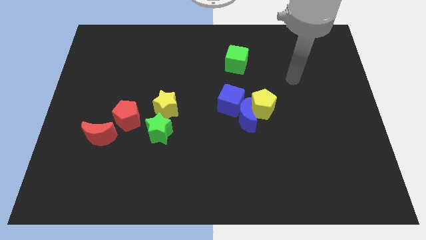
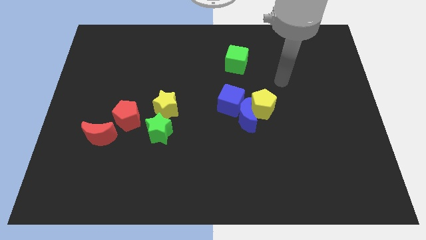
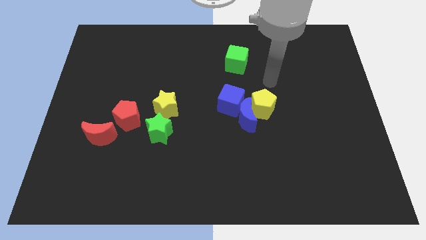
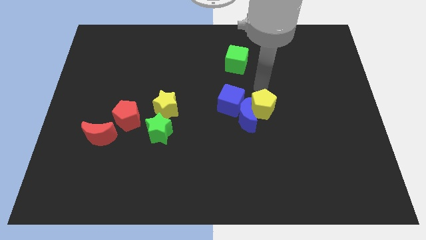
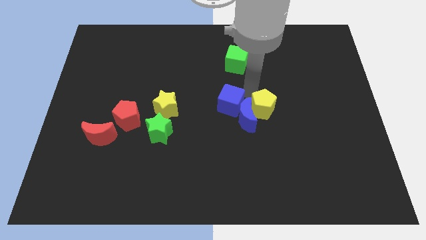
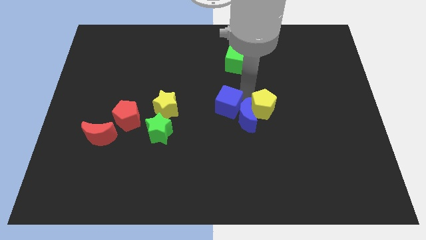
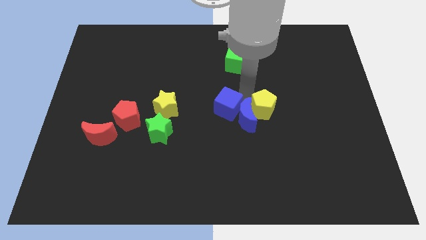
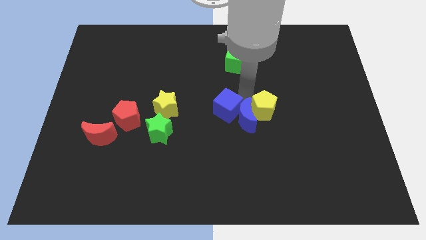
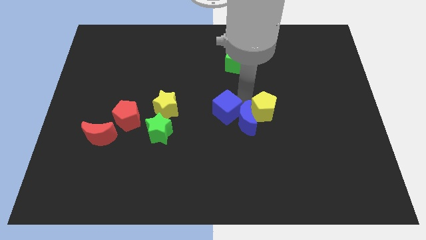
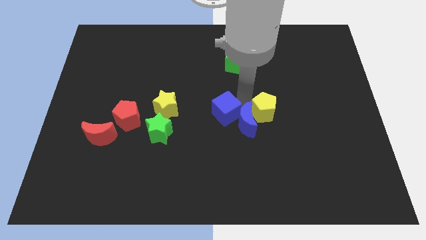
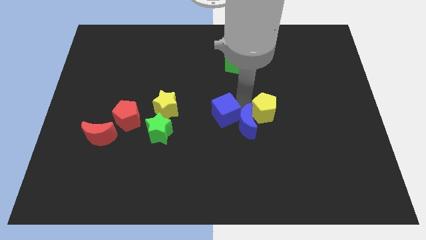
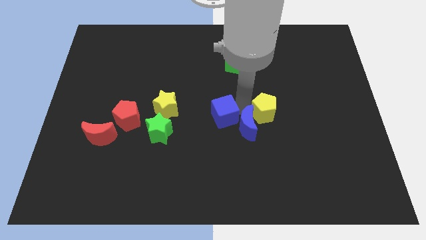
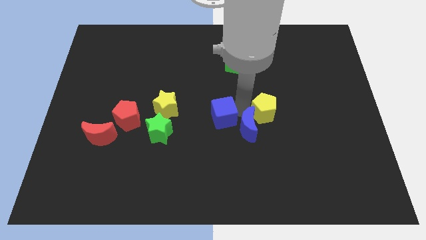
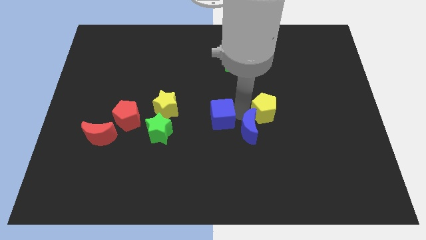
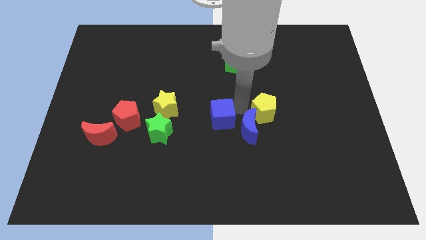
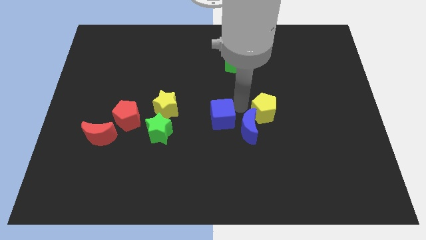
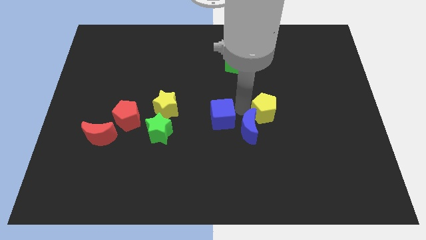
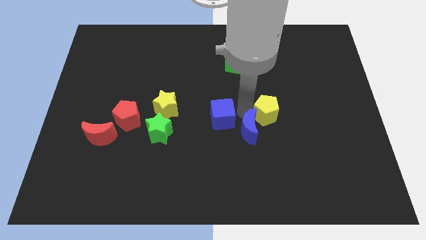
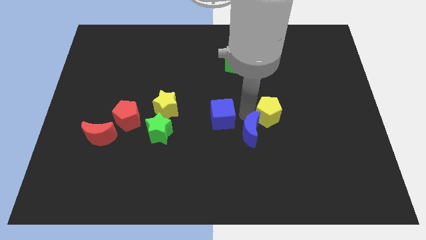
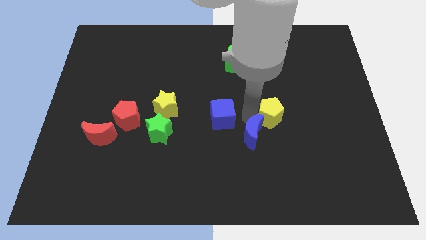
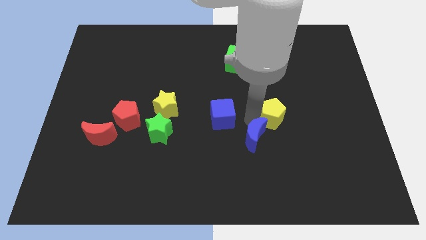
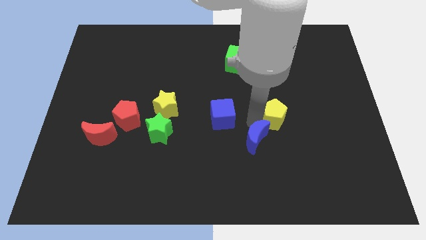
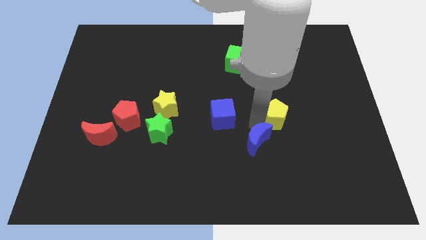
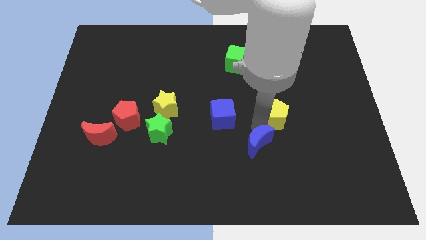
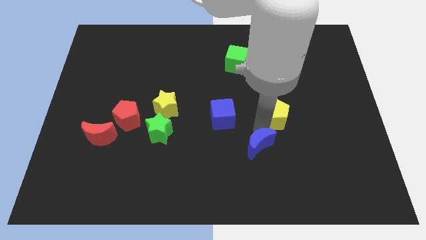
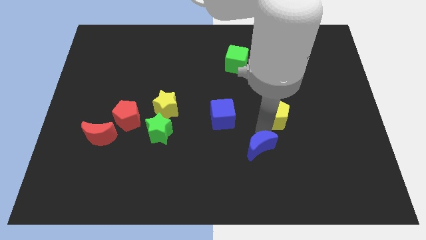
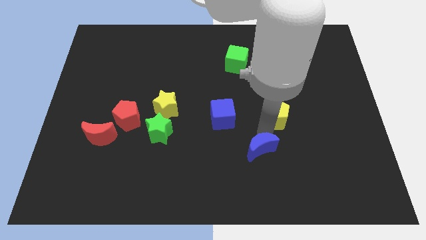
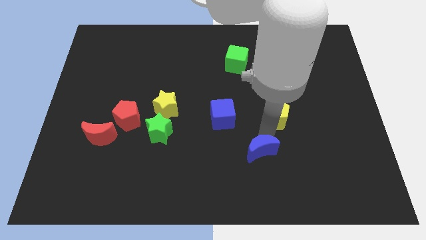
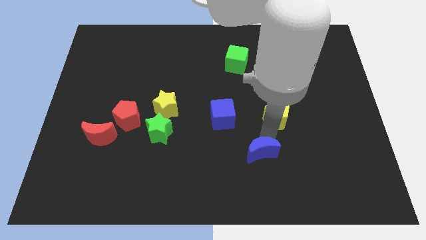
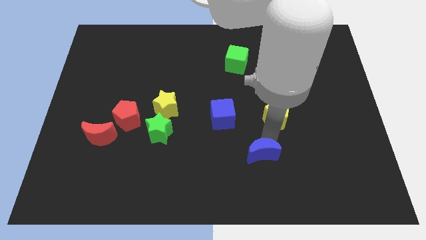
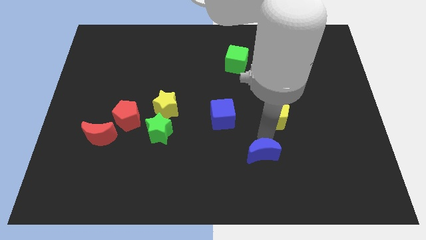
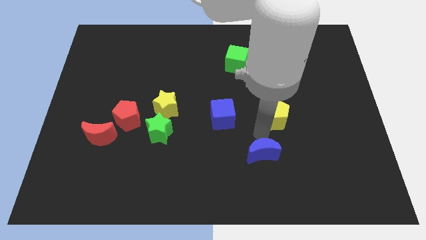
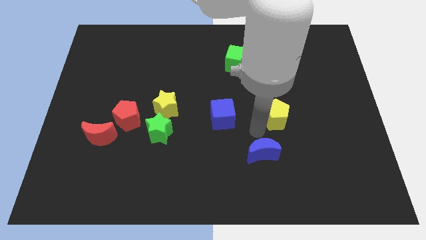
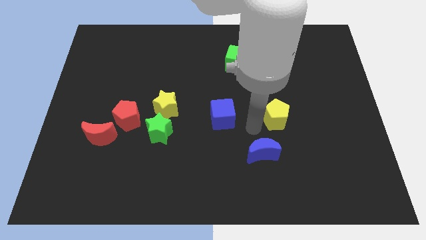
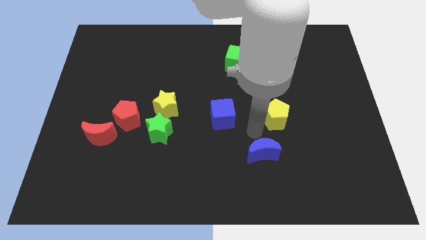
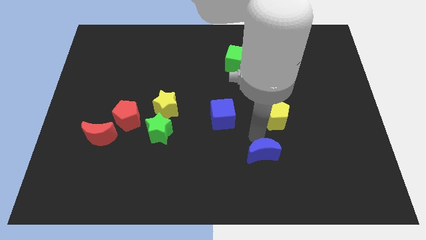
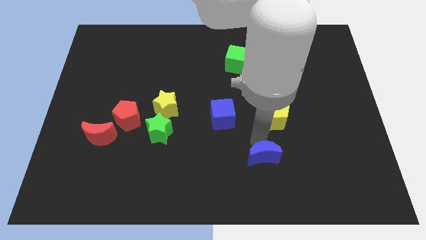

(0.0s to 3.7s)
pull the blue moon apart from the yellow pentagon and blue cube

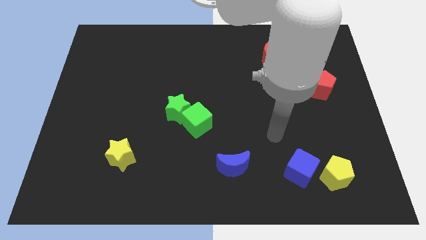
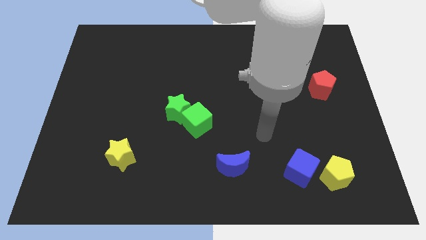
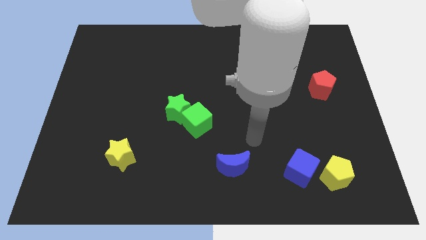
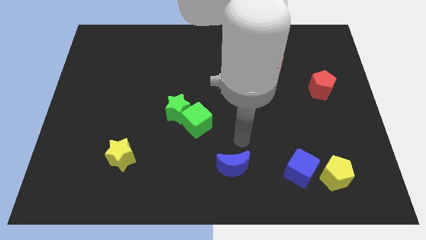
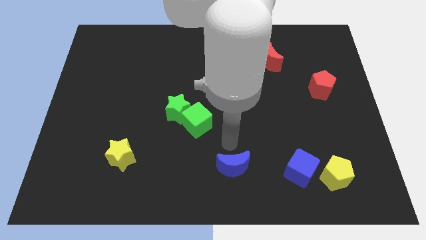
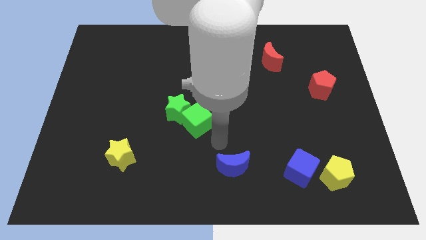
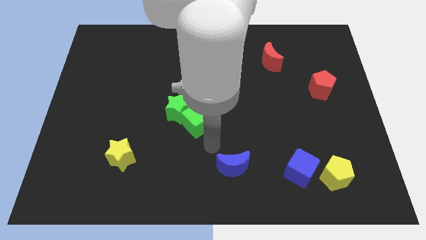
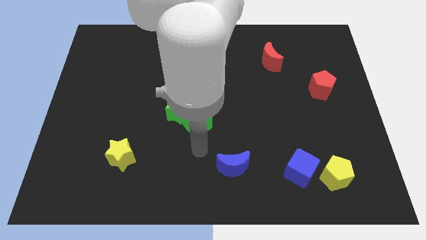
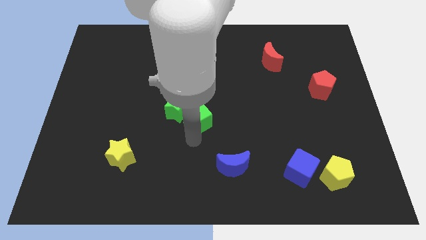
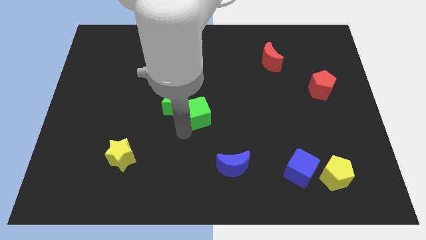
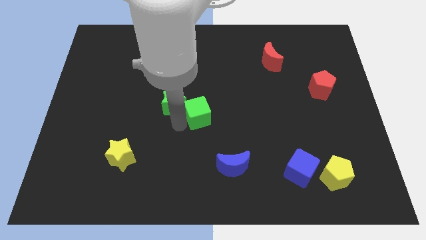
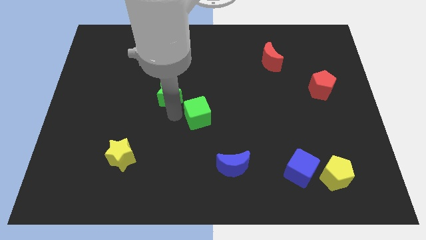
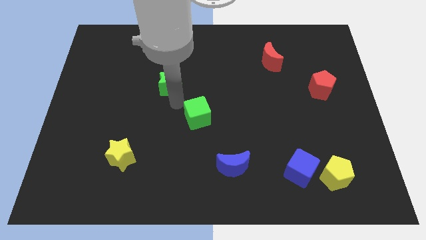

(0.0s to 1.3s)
pull the green cube apart from the green star

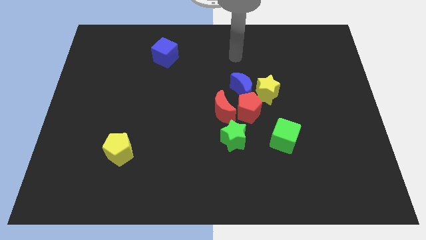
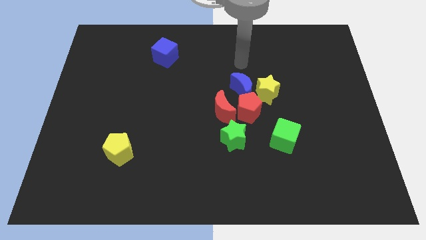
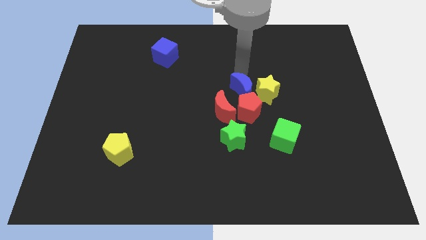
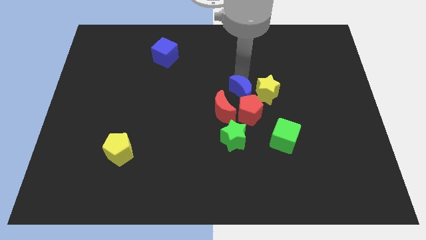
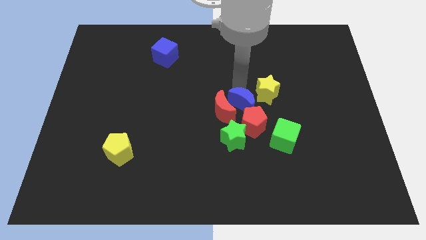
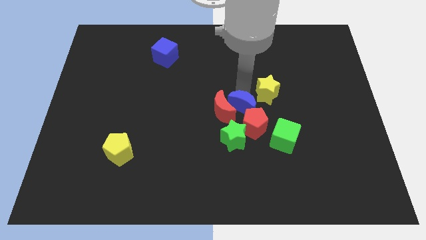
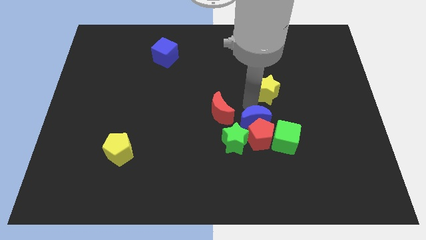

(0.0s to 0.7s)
separate the yellow star from the blue moon and red pentagon

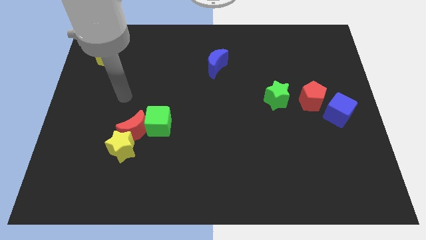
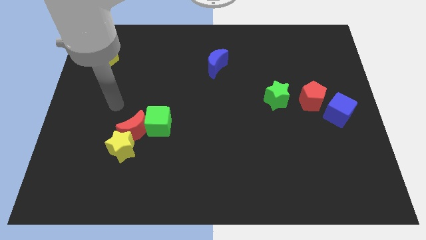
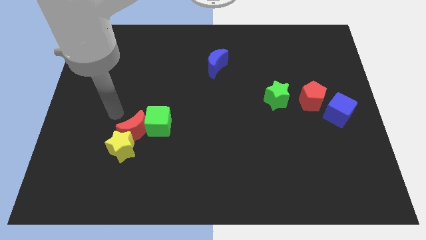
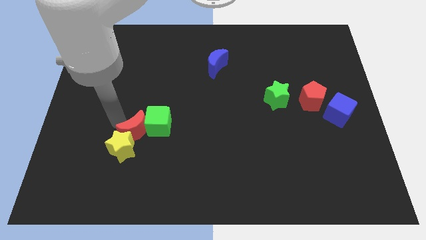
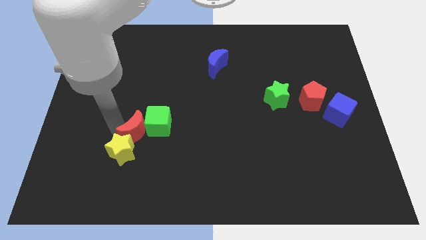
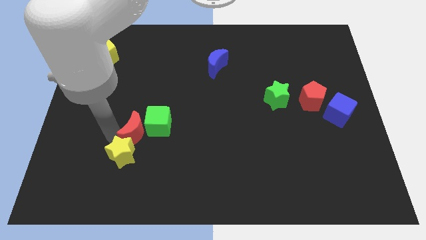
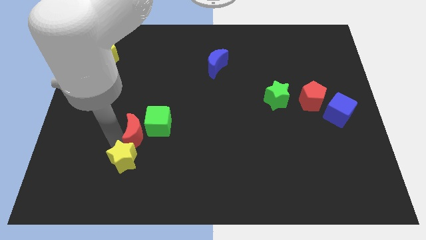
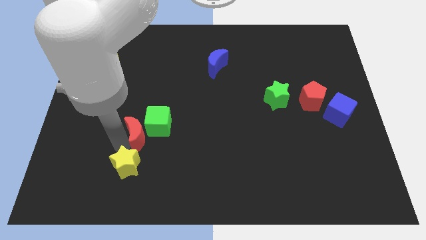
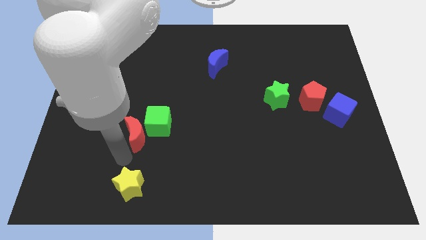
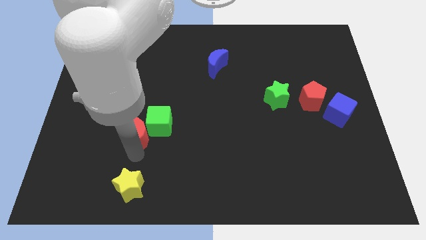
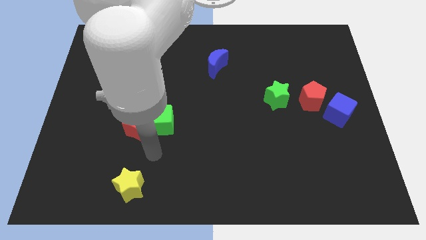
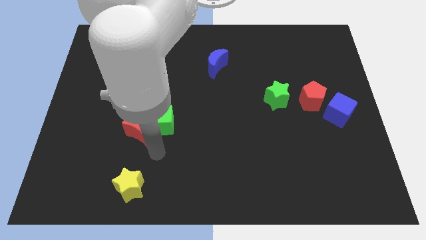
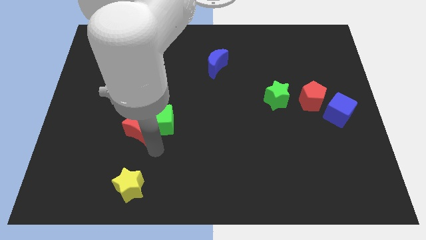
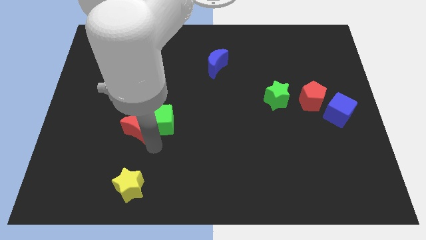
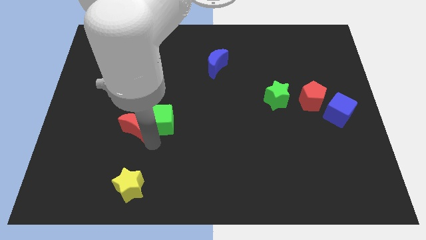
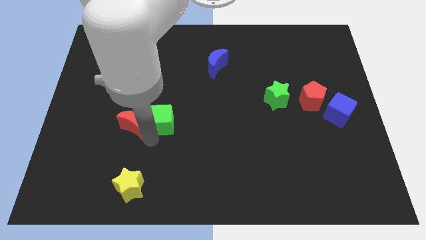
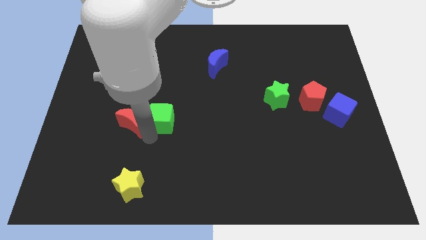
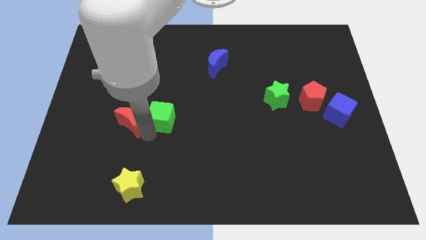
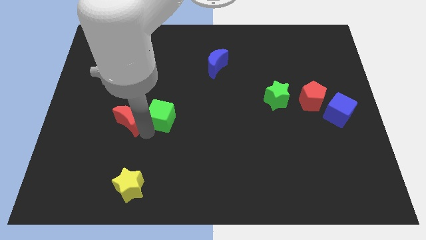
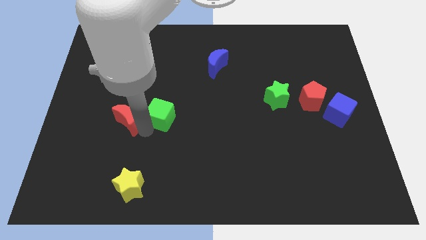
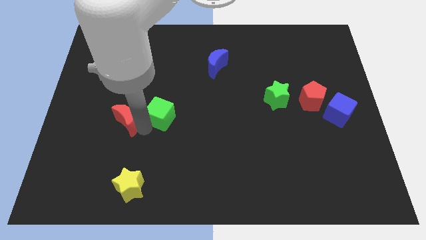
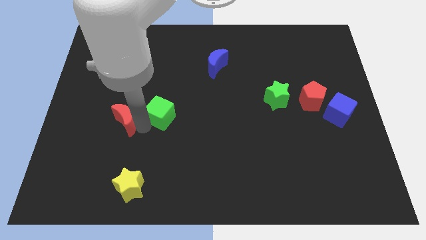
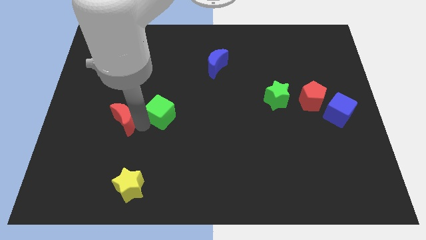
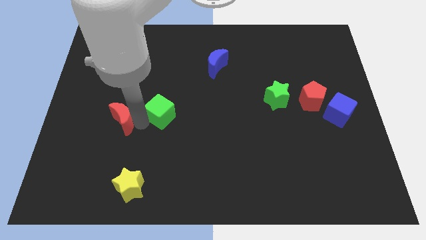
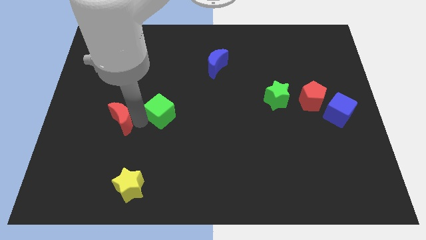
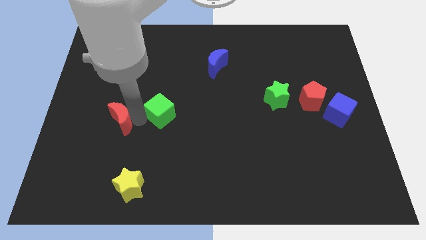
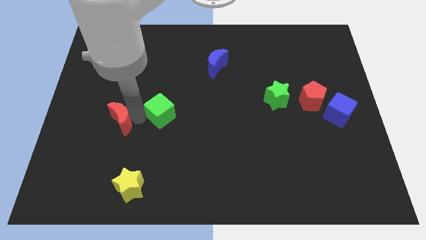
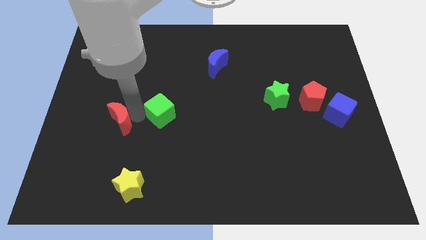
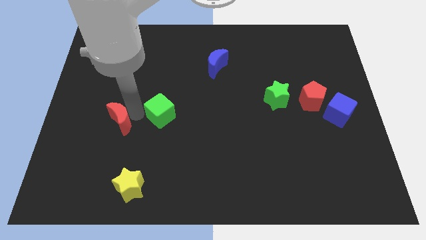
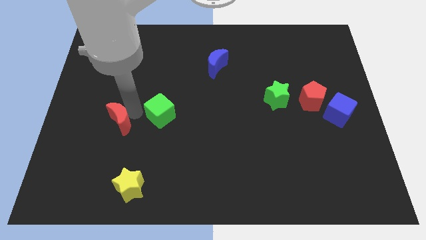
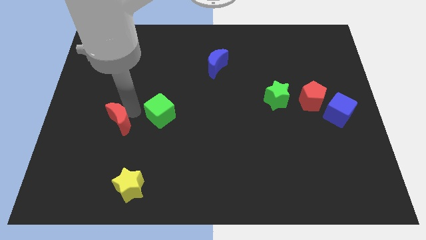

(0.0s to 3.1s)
pull the red moon apart from the yellow star and green cube

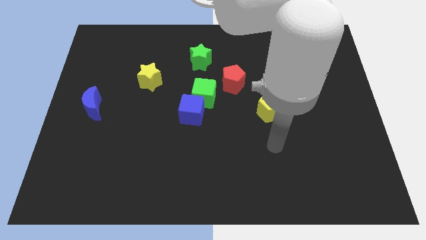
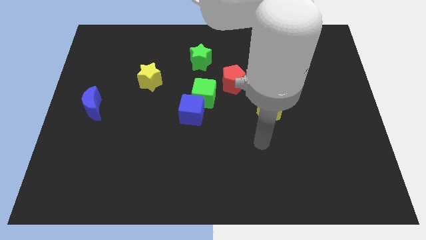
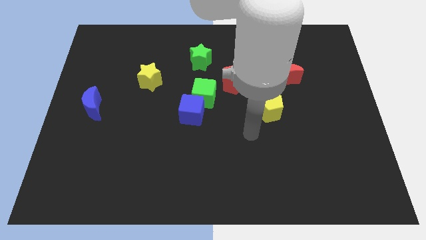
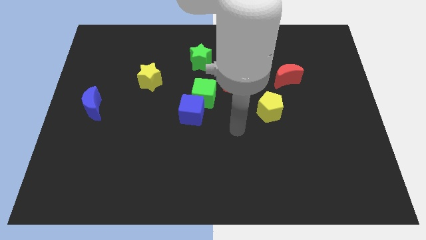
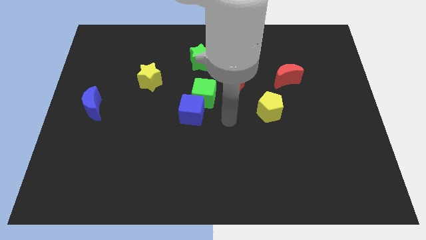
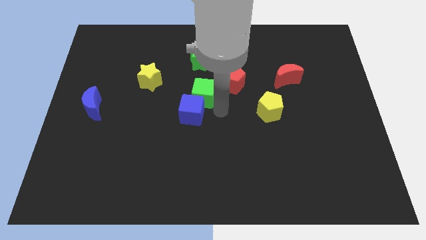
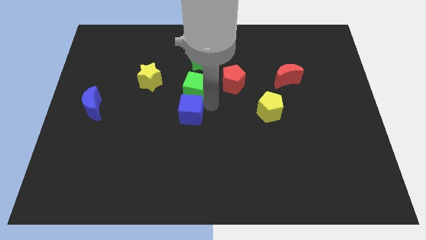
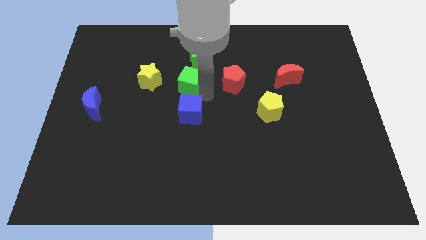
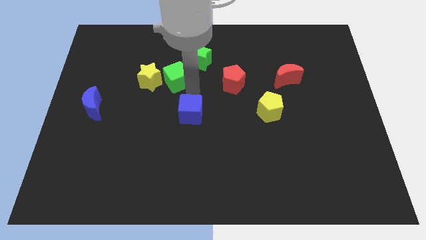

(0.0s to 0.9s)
pull the blue cube apart from the green cube
